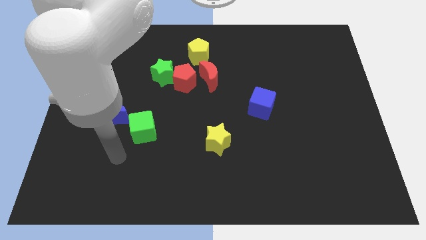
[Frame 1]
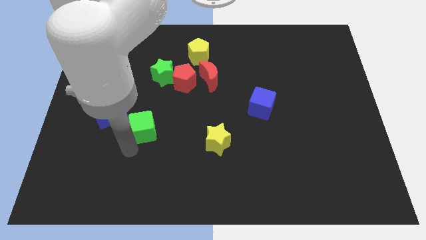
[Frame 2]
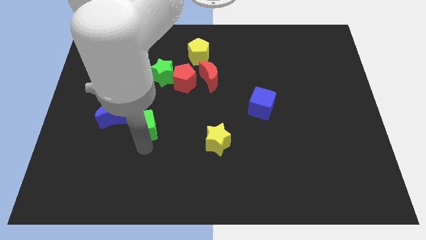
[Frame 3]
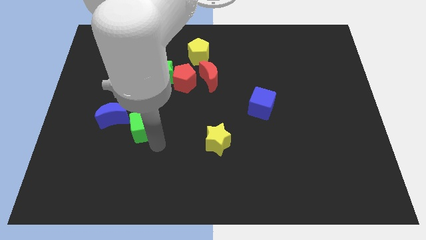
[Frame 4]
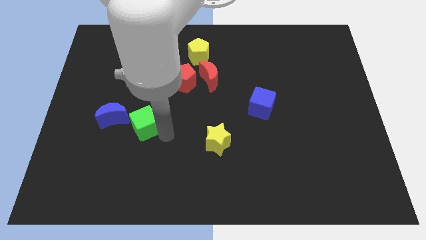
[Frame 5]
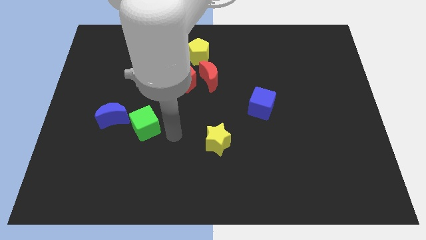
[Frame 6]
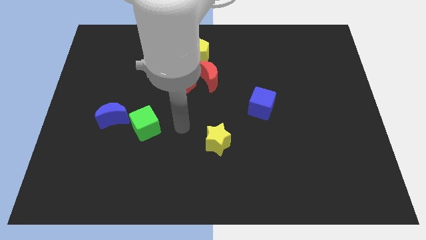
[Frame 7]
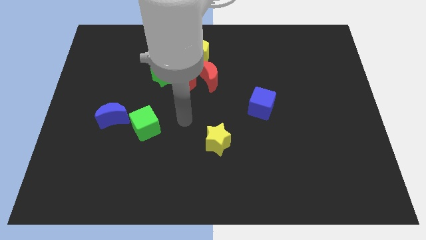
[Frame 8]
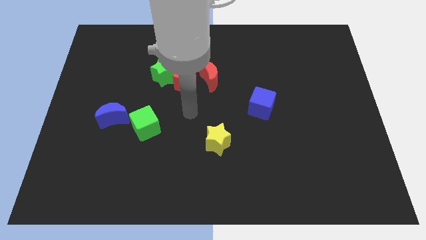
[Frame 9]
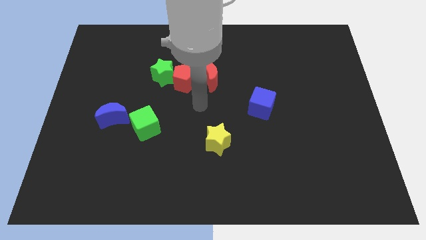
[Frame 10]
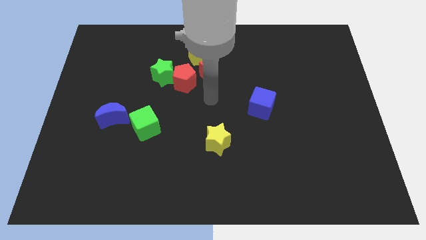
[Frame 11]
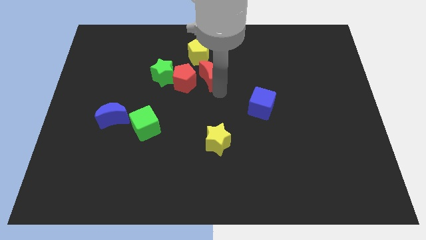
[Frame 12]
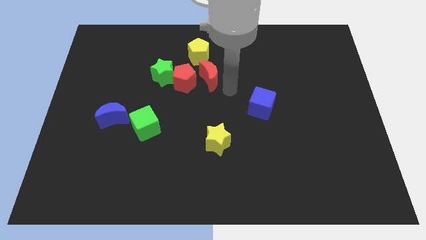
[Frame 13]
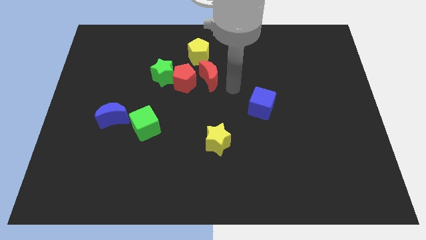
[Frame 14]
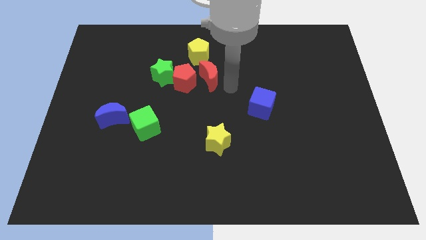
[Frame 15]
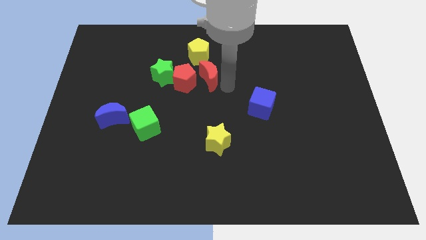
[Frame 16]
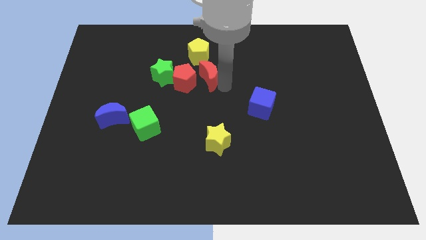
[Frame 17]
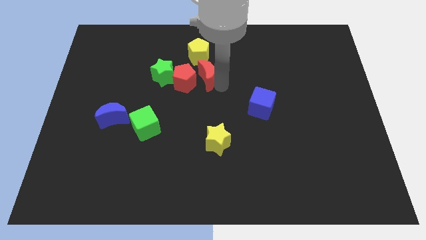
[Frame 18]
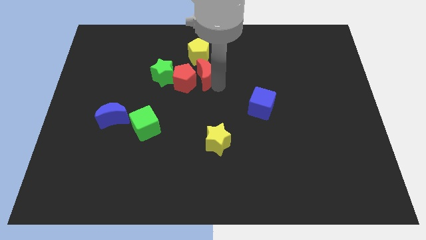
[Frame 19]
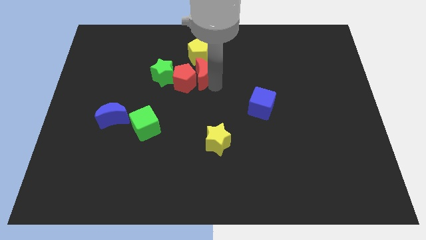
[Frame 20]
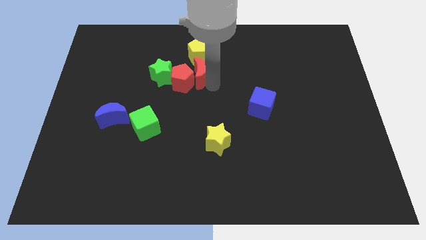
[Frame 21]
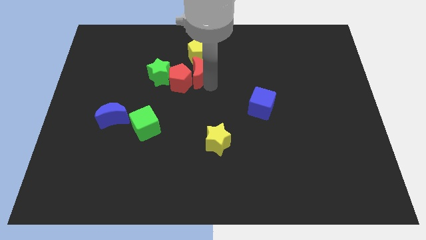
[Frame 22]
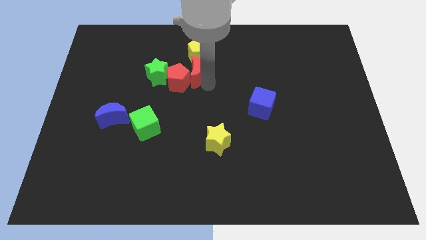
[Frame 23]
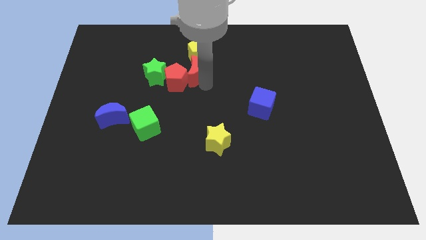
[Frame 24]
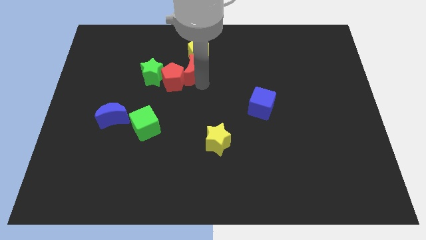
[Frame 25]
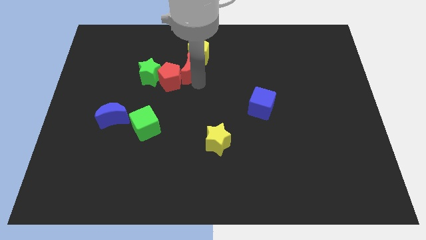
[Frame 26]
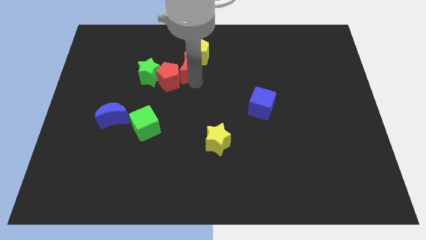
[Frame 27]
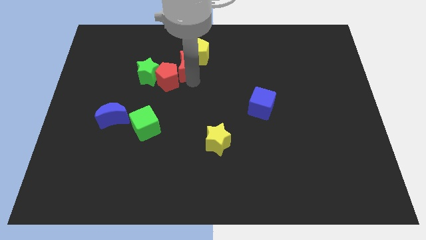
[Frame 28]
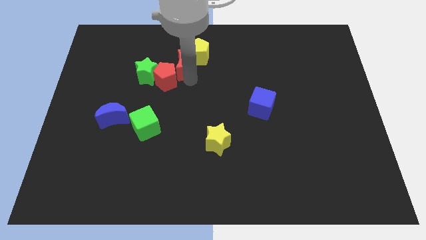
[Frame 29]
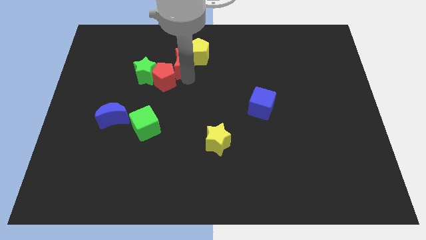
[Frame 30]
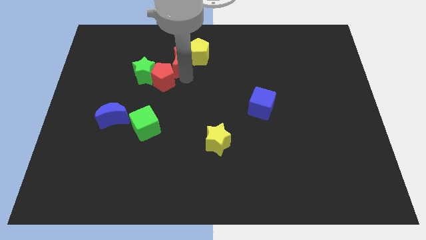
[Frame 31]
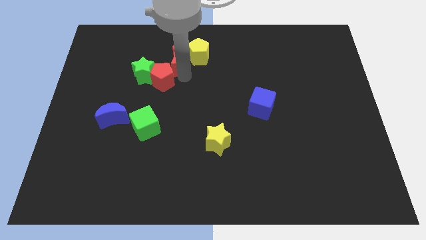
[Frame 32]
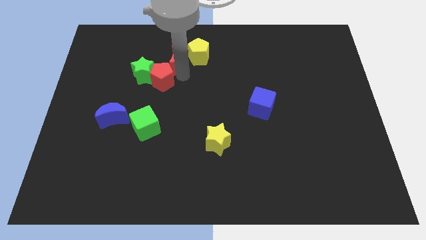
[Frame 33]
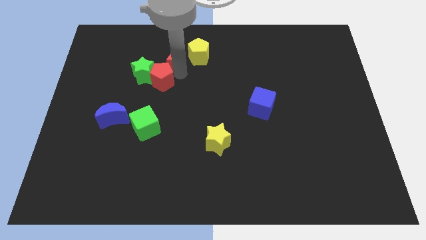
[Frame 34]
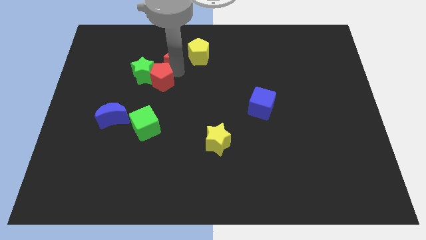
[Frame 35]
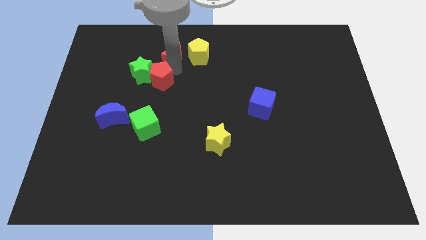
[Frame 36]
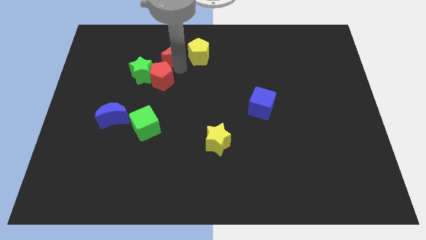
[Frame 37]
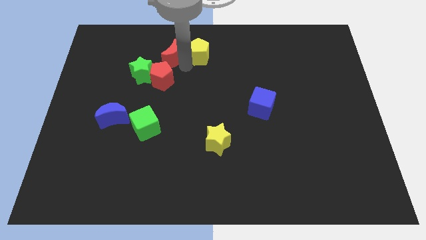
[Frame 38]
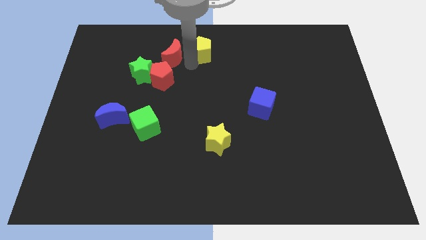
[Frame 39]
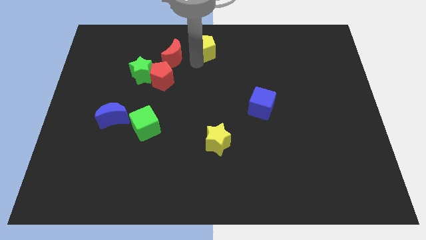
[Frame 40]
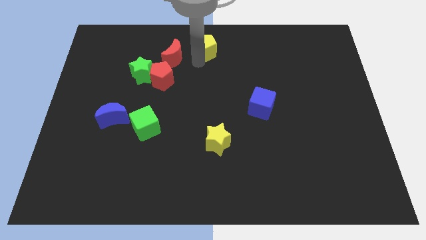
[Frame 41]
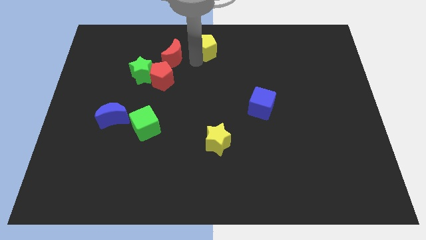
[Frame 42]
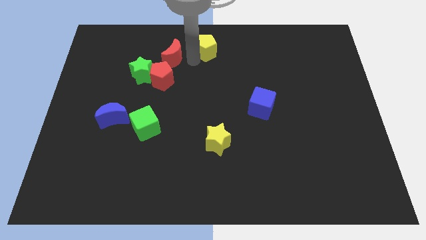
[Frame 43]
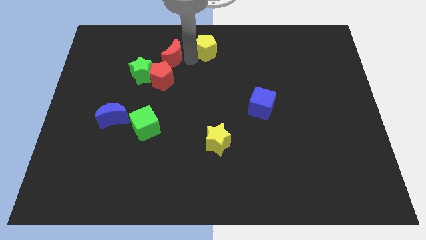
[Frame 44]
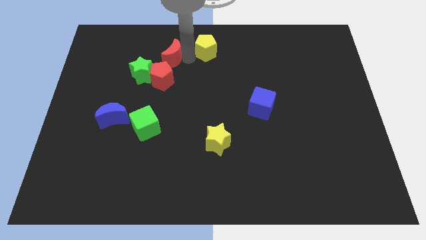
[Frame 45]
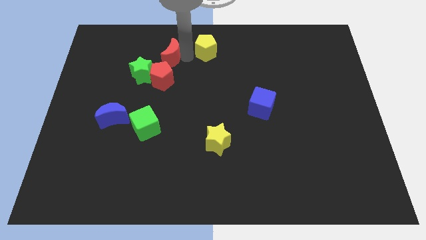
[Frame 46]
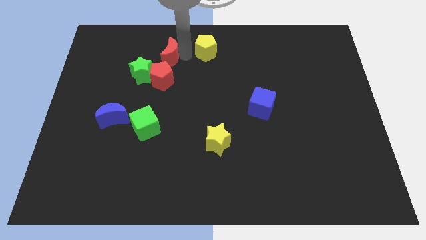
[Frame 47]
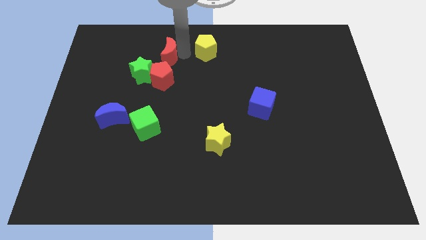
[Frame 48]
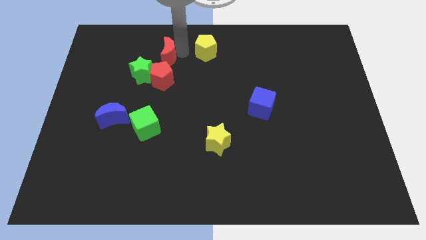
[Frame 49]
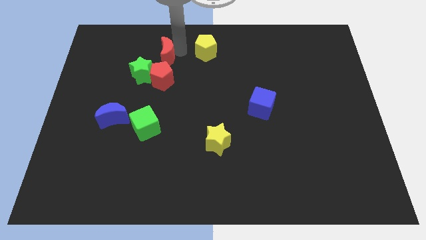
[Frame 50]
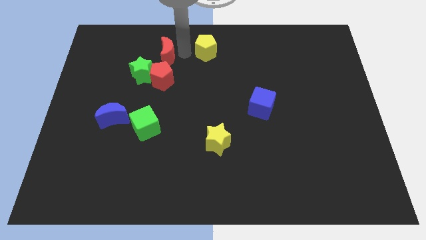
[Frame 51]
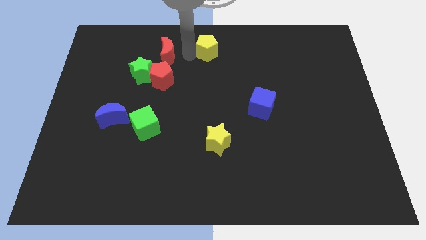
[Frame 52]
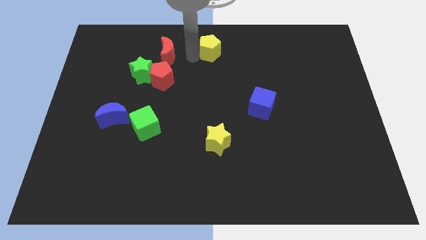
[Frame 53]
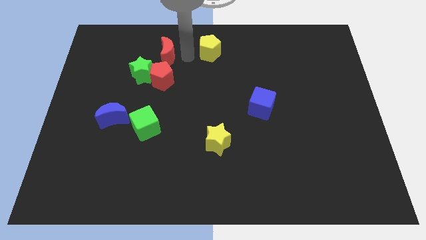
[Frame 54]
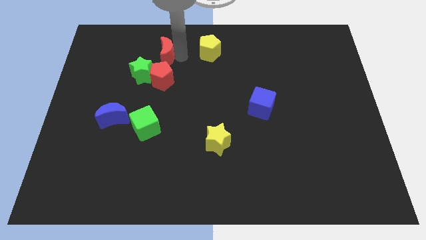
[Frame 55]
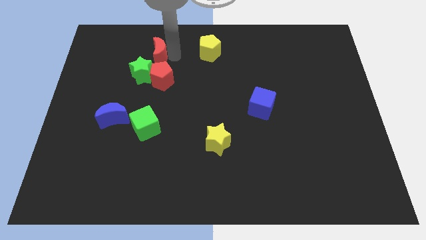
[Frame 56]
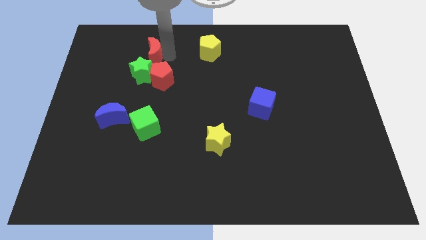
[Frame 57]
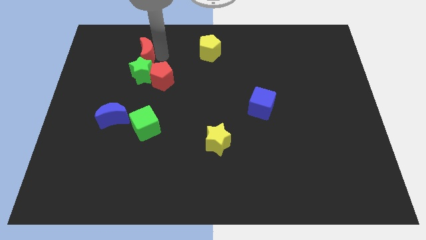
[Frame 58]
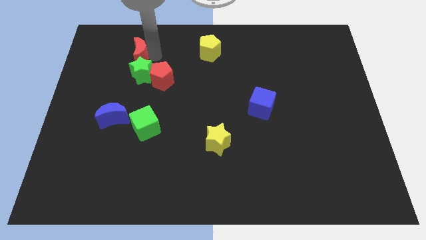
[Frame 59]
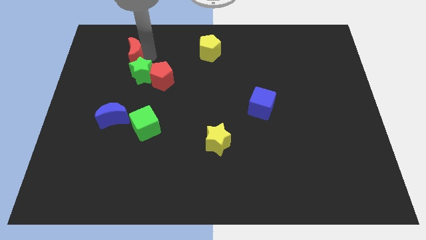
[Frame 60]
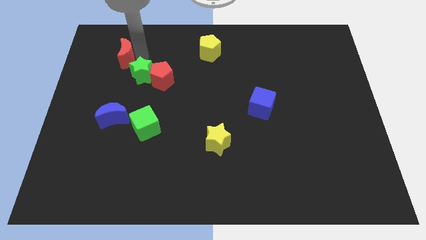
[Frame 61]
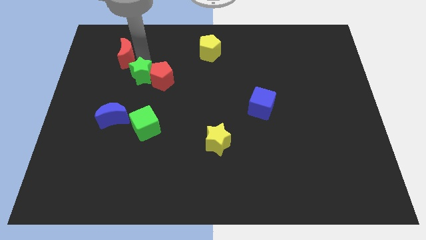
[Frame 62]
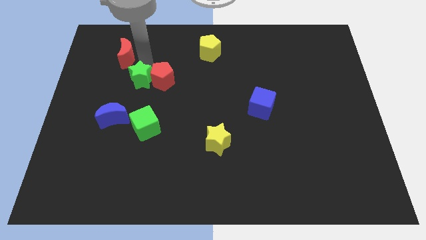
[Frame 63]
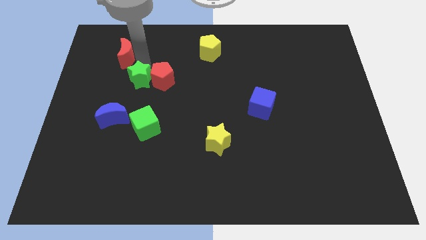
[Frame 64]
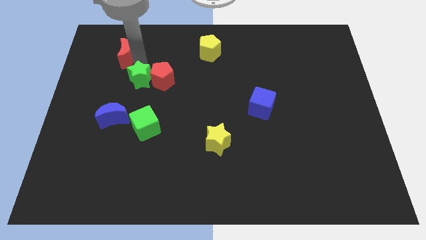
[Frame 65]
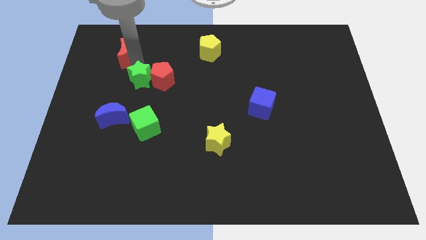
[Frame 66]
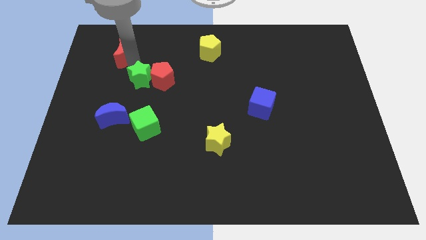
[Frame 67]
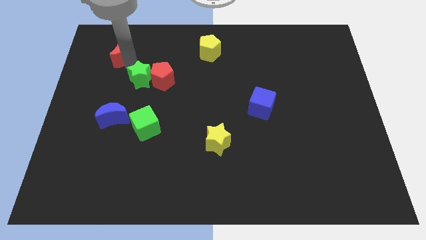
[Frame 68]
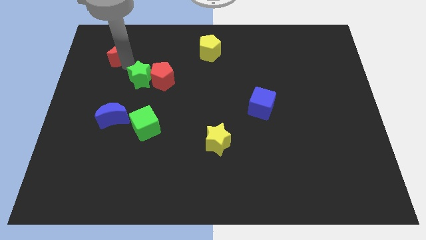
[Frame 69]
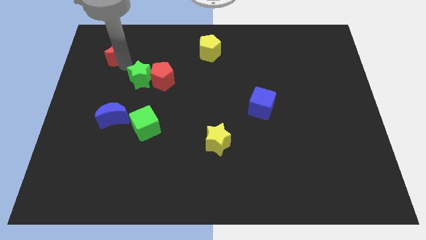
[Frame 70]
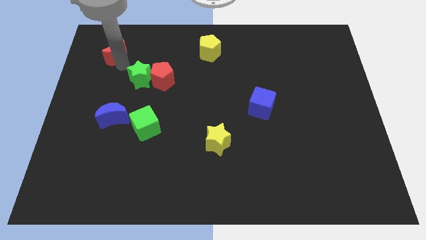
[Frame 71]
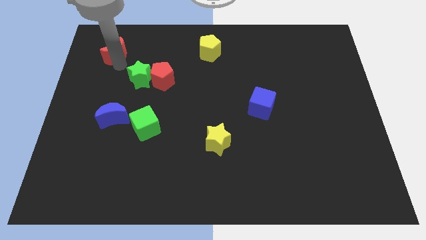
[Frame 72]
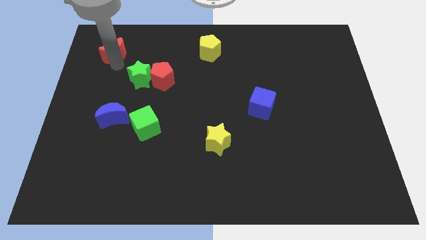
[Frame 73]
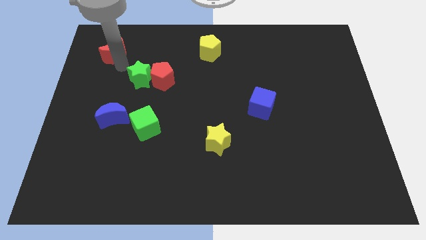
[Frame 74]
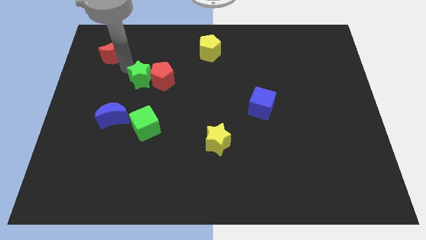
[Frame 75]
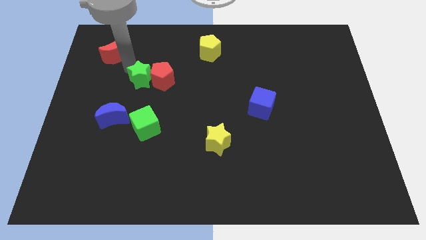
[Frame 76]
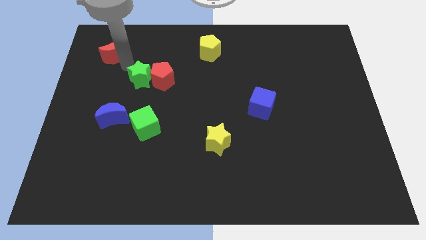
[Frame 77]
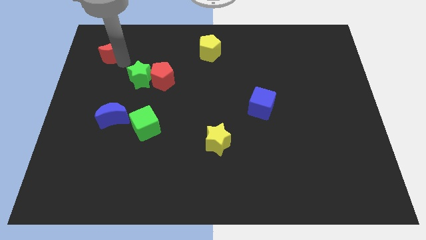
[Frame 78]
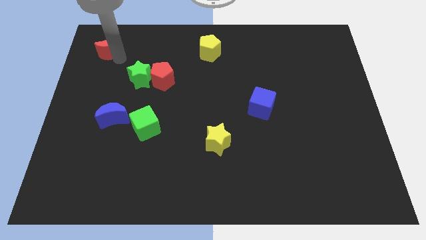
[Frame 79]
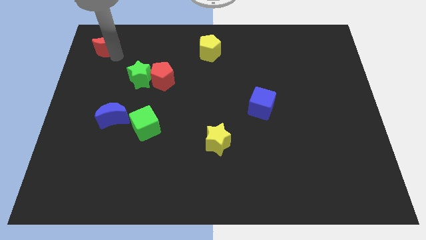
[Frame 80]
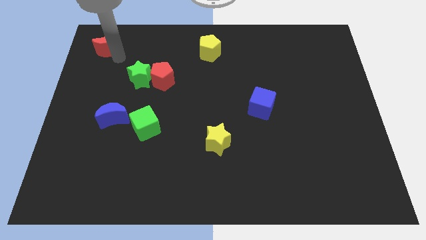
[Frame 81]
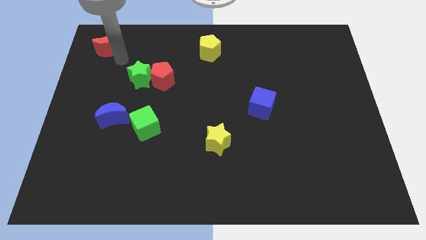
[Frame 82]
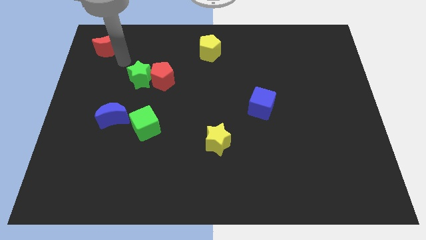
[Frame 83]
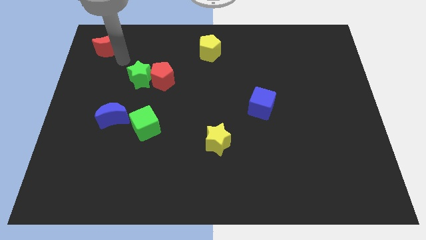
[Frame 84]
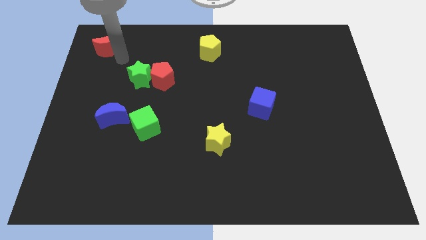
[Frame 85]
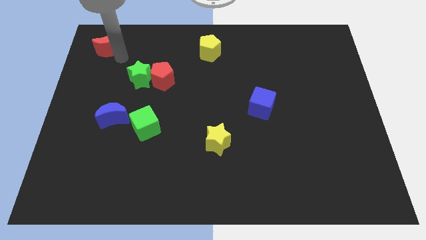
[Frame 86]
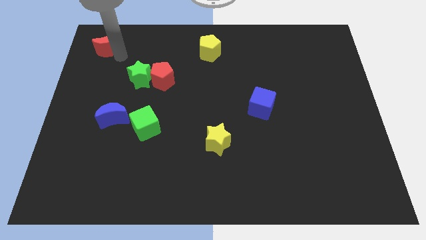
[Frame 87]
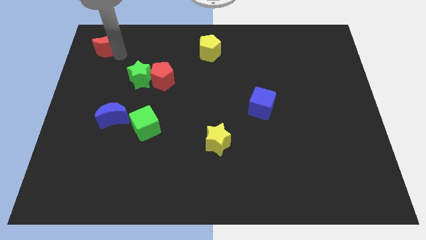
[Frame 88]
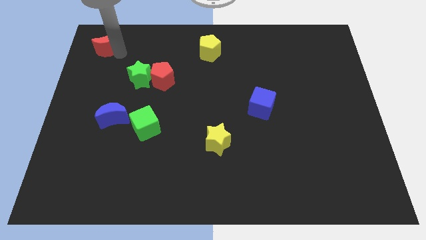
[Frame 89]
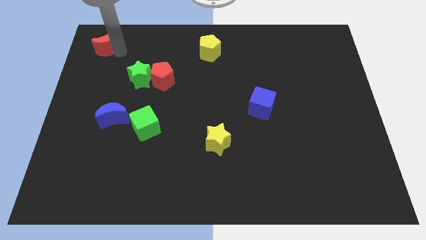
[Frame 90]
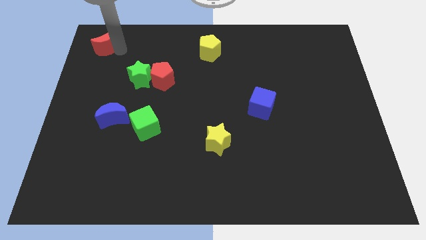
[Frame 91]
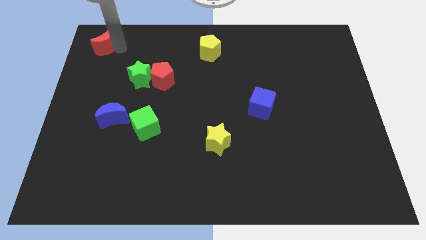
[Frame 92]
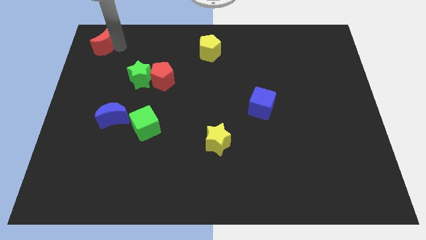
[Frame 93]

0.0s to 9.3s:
put the red moon to the top left
